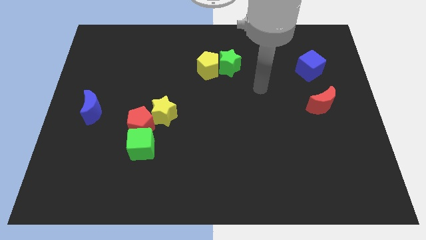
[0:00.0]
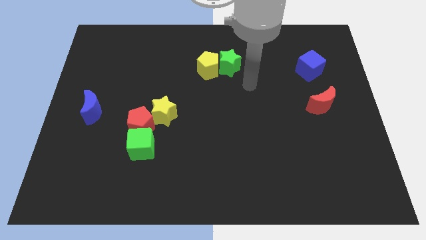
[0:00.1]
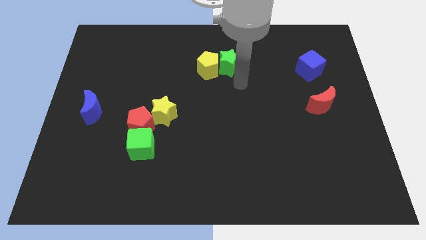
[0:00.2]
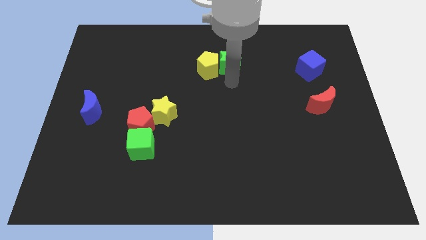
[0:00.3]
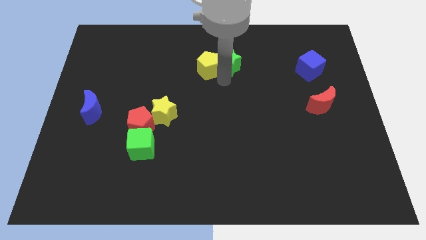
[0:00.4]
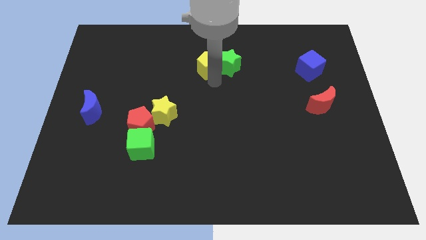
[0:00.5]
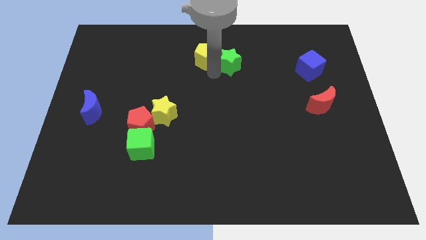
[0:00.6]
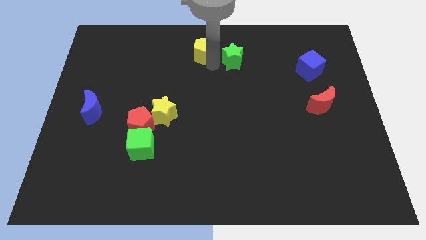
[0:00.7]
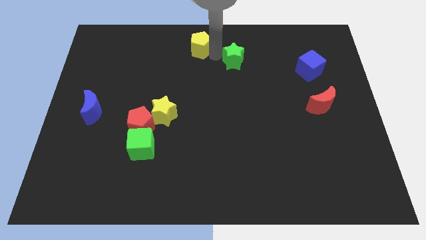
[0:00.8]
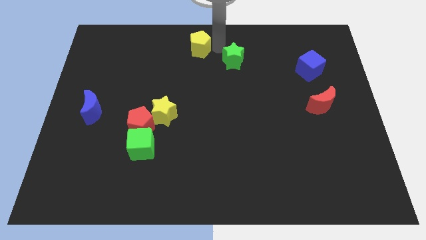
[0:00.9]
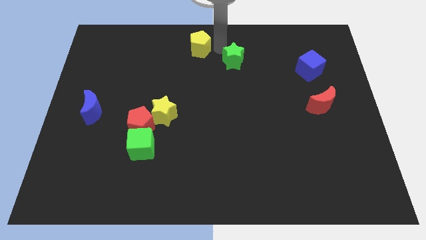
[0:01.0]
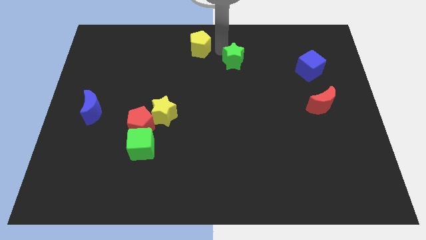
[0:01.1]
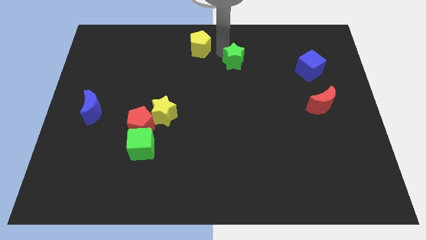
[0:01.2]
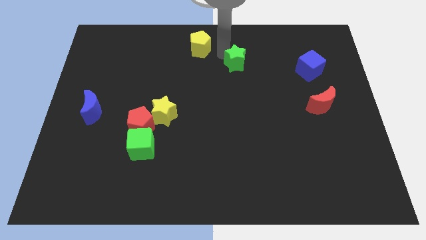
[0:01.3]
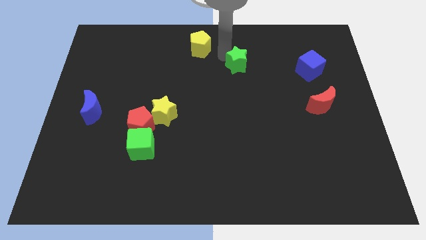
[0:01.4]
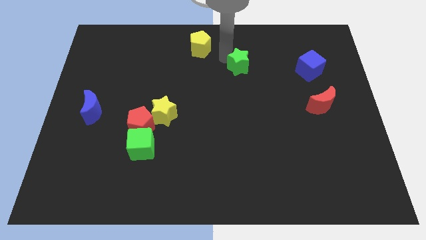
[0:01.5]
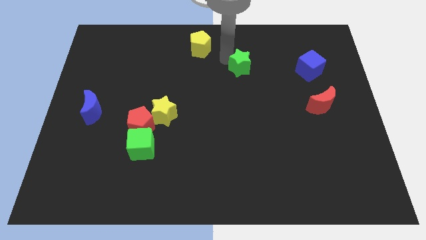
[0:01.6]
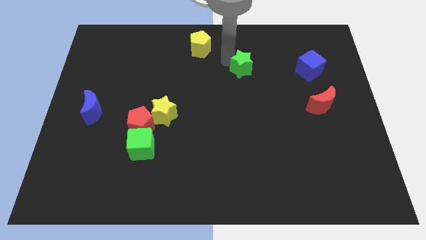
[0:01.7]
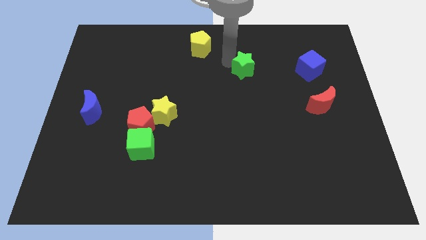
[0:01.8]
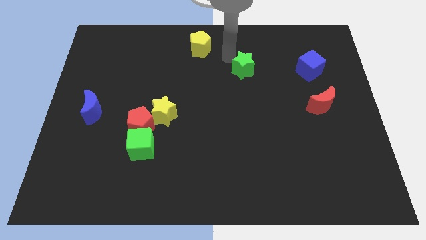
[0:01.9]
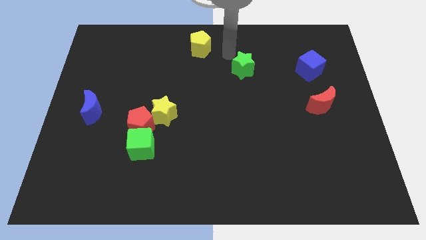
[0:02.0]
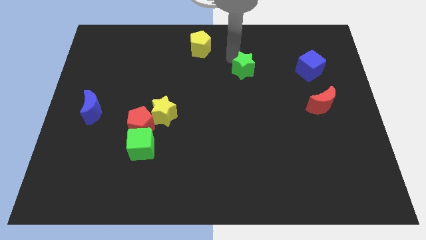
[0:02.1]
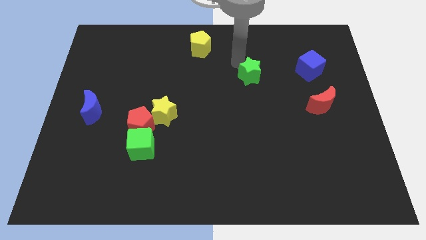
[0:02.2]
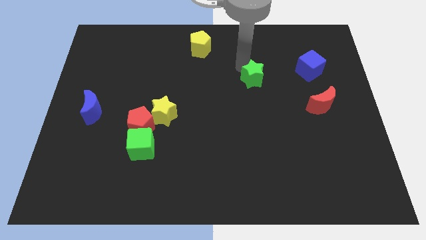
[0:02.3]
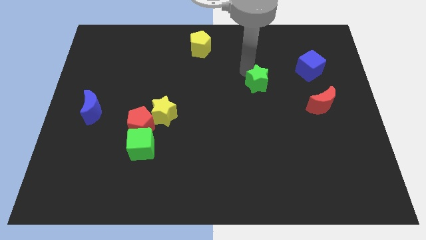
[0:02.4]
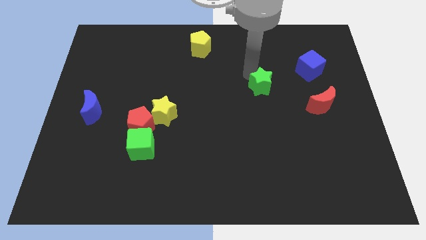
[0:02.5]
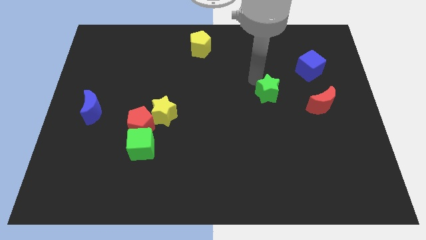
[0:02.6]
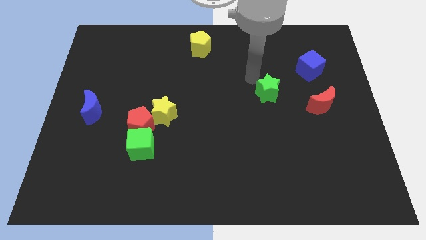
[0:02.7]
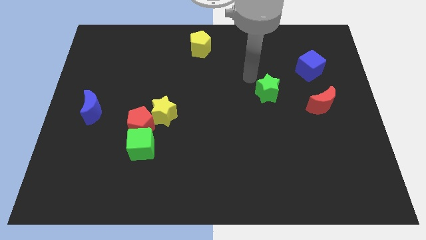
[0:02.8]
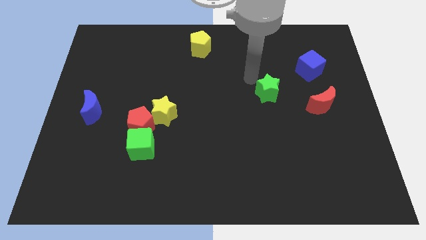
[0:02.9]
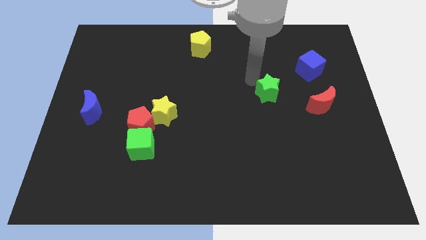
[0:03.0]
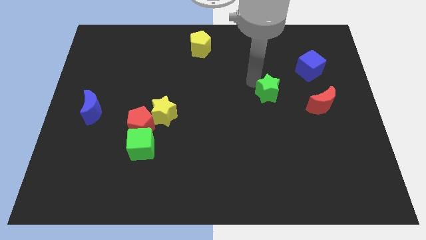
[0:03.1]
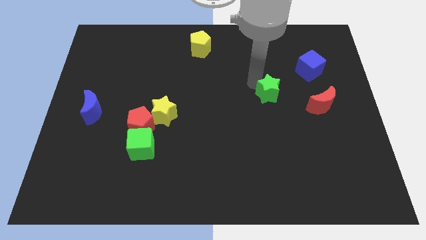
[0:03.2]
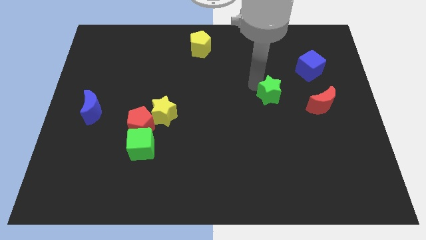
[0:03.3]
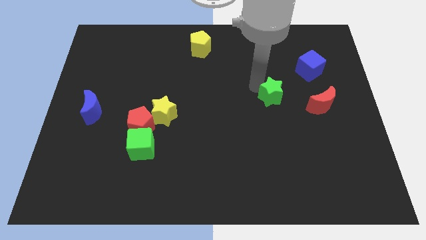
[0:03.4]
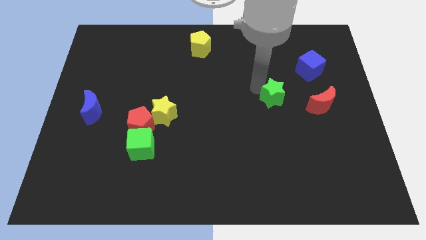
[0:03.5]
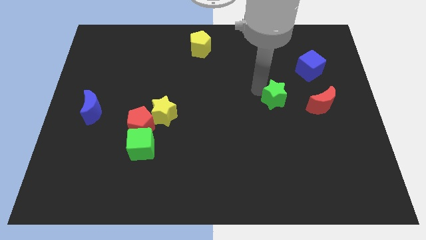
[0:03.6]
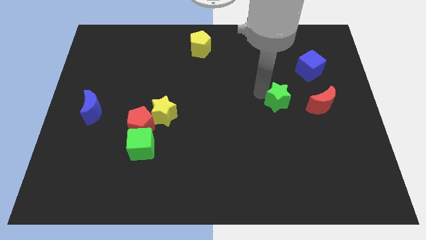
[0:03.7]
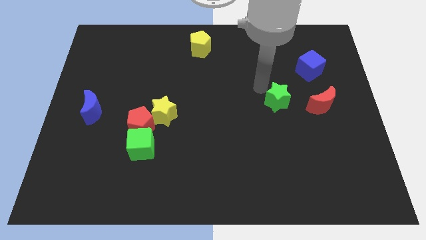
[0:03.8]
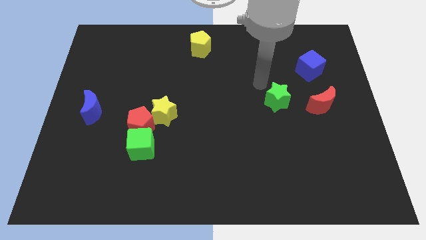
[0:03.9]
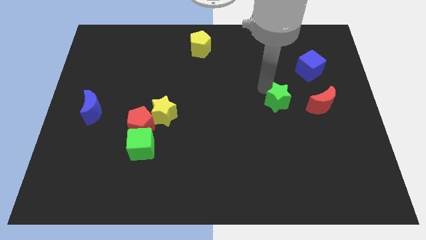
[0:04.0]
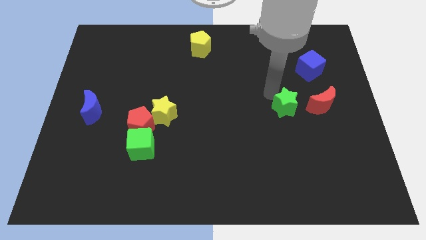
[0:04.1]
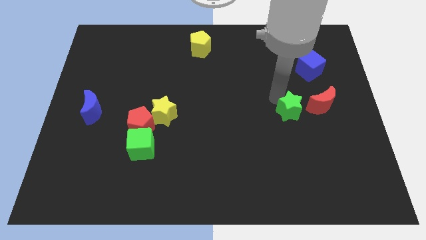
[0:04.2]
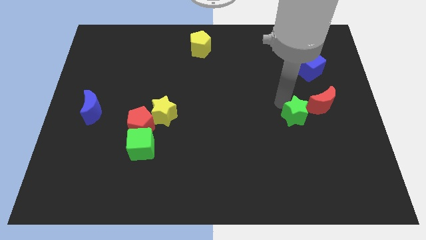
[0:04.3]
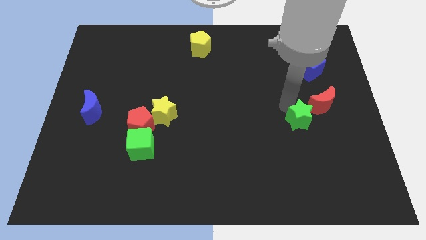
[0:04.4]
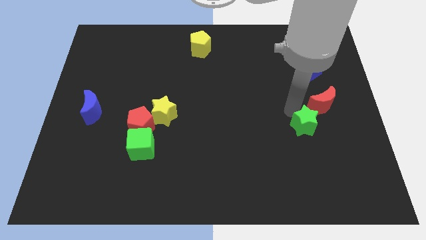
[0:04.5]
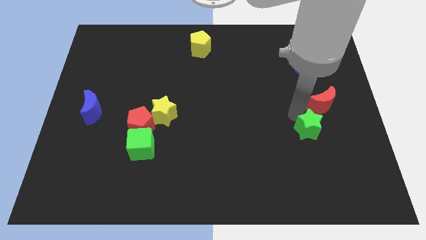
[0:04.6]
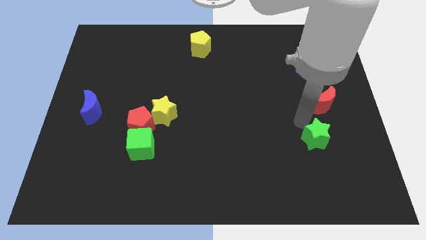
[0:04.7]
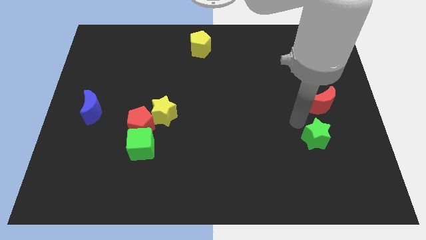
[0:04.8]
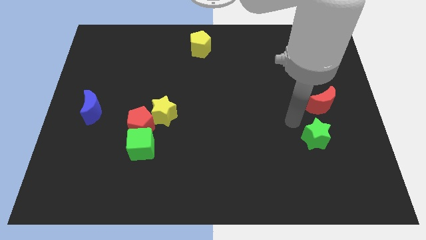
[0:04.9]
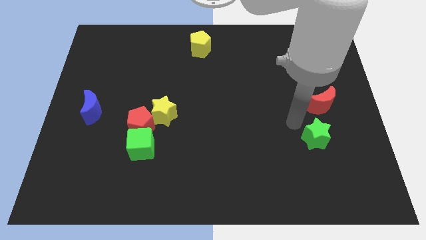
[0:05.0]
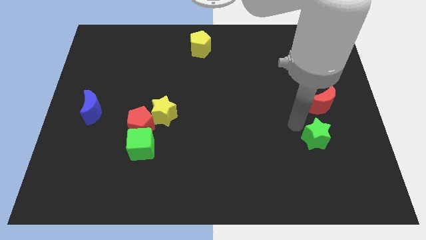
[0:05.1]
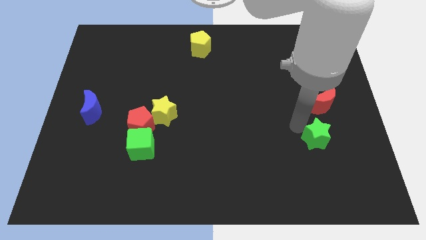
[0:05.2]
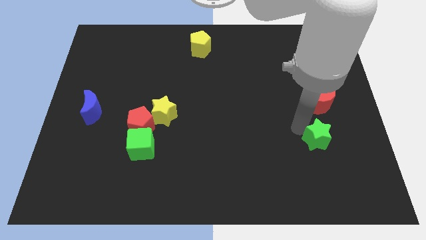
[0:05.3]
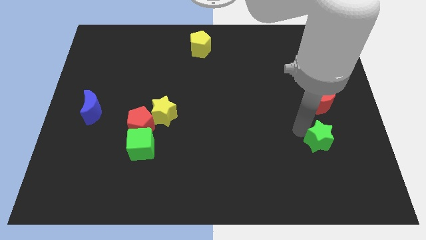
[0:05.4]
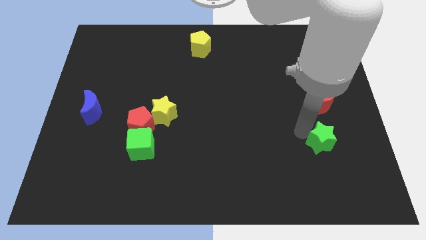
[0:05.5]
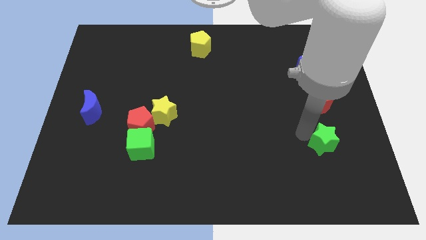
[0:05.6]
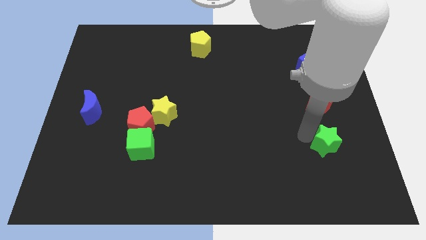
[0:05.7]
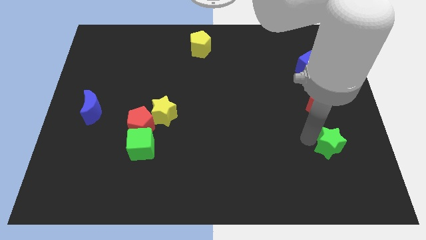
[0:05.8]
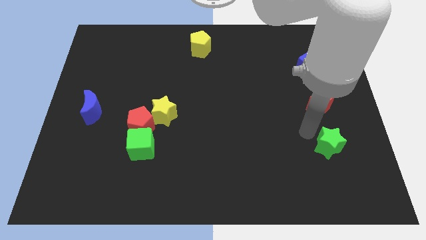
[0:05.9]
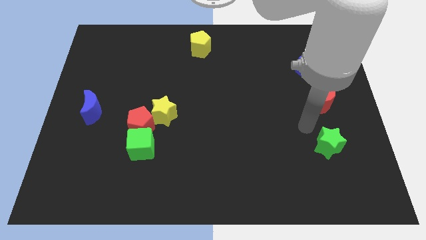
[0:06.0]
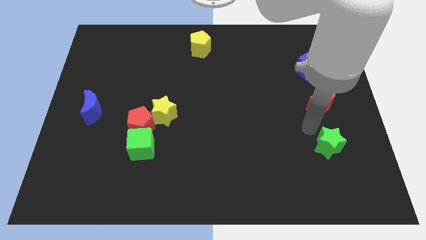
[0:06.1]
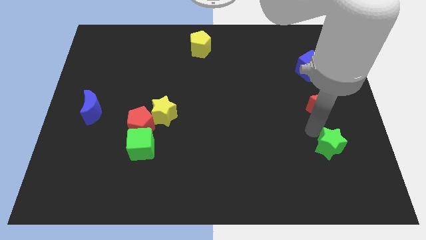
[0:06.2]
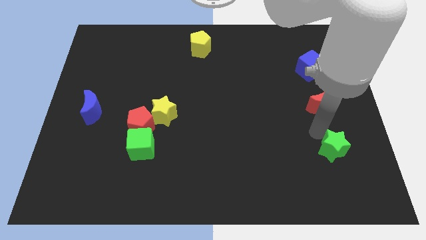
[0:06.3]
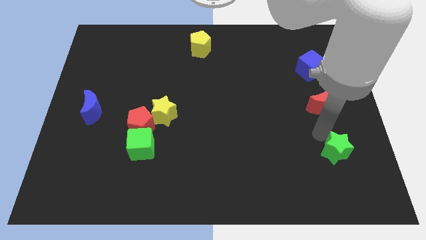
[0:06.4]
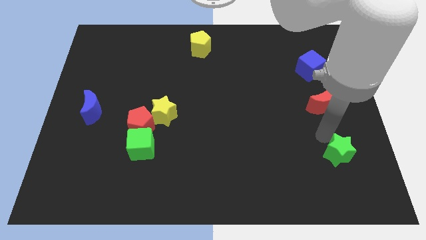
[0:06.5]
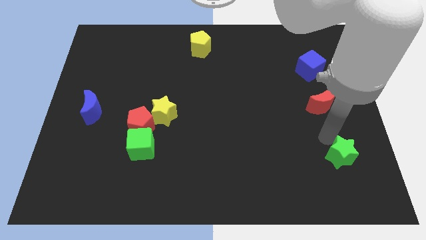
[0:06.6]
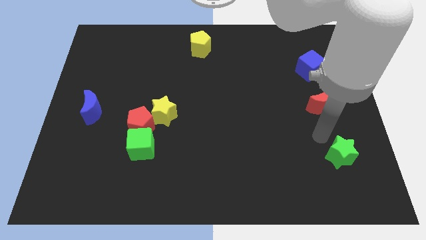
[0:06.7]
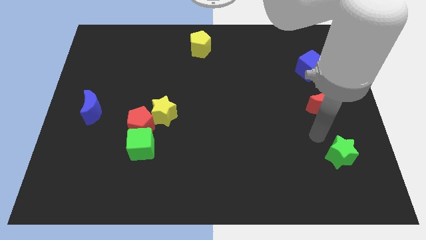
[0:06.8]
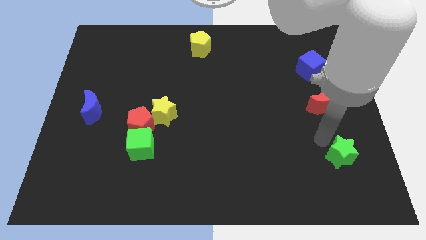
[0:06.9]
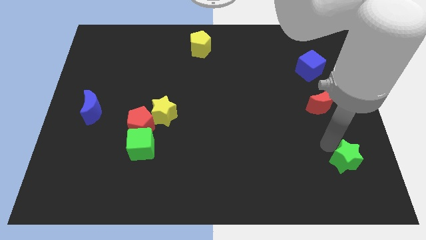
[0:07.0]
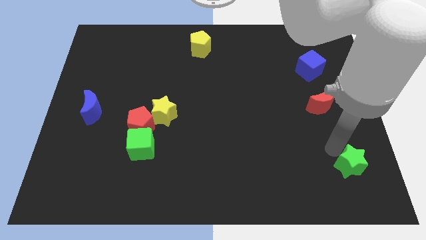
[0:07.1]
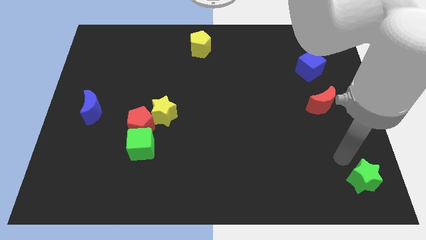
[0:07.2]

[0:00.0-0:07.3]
move the green star to the bottom right

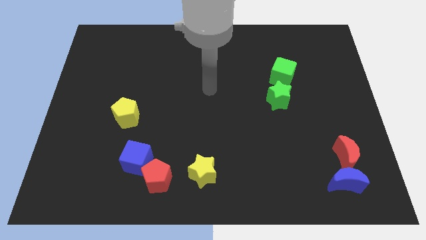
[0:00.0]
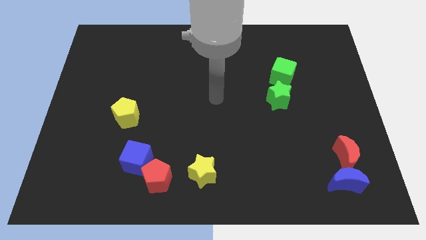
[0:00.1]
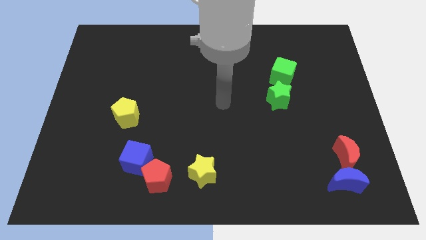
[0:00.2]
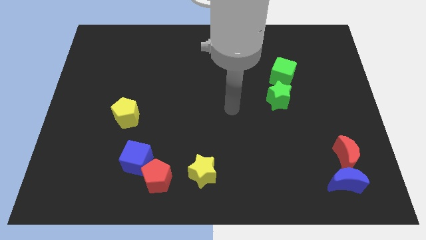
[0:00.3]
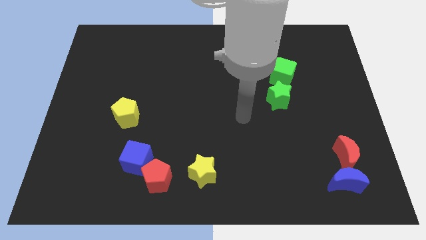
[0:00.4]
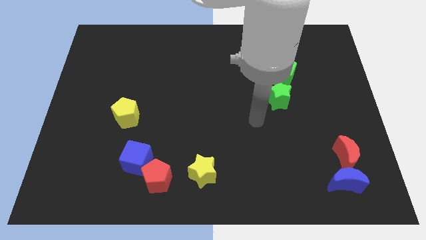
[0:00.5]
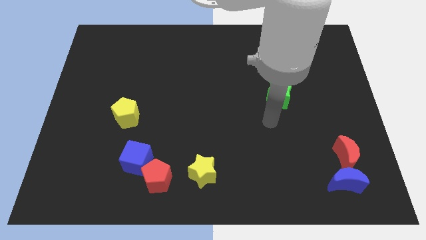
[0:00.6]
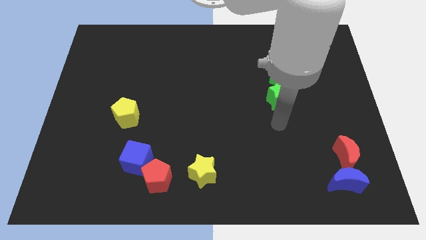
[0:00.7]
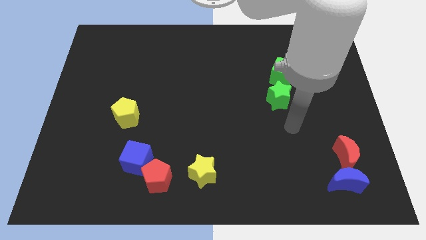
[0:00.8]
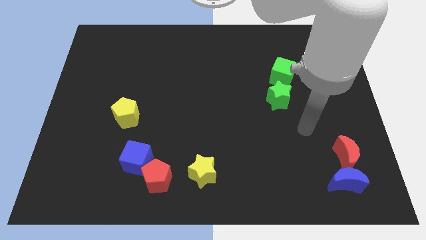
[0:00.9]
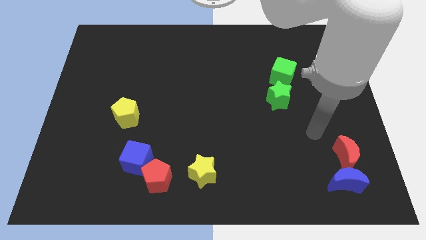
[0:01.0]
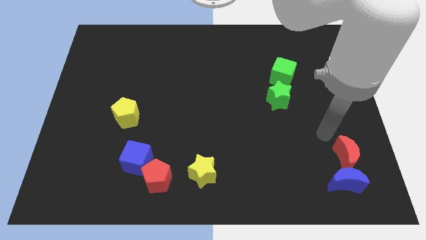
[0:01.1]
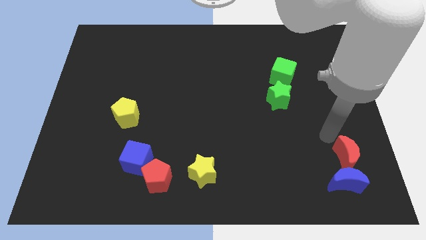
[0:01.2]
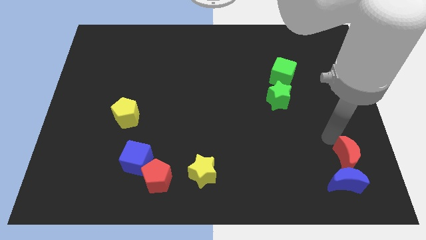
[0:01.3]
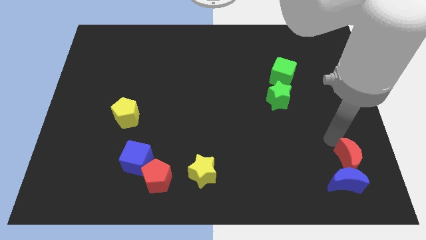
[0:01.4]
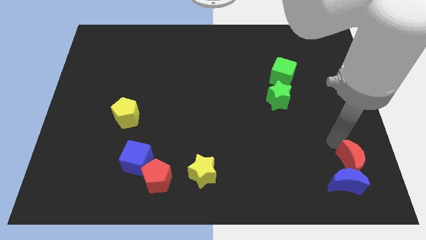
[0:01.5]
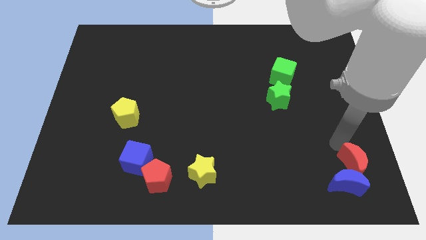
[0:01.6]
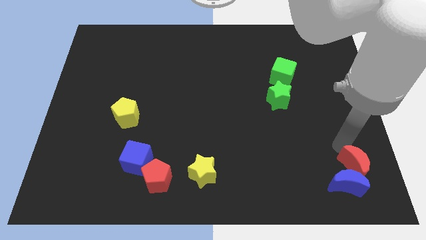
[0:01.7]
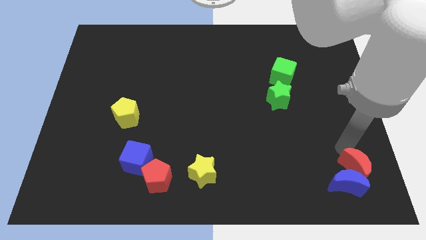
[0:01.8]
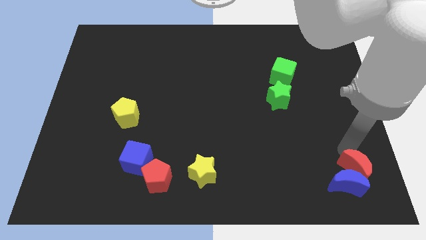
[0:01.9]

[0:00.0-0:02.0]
move the red moon to the bottom right of the board
